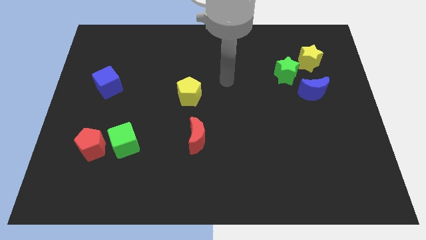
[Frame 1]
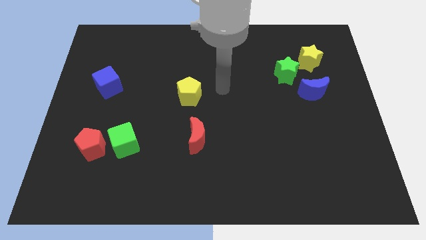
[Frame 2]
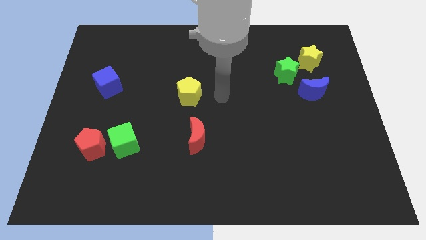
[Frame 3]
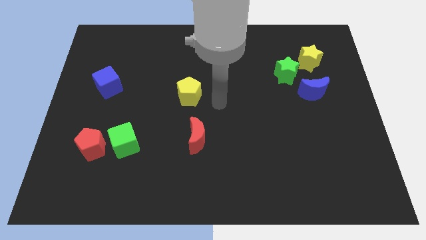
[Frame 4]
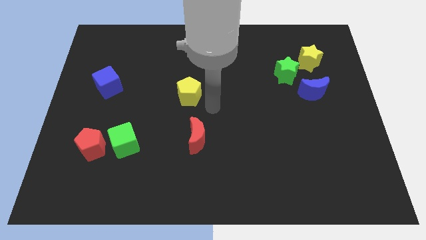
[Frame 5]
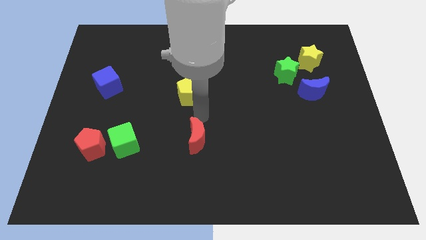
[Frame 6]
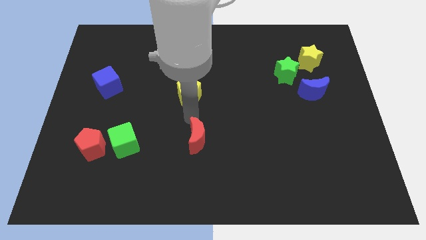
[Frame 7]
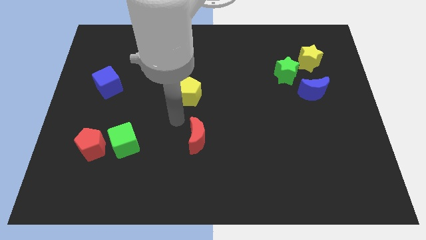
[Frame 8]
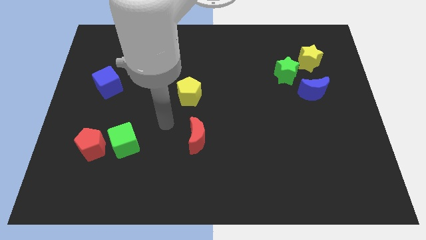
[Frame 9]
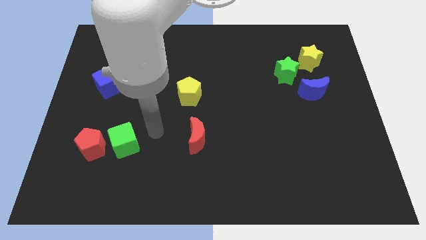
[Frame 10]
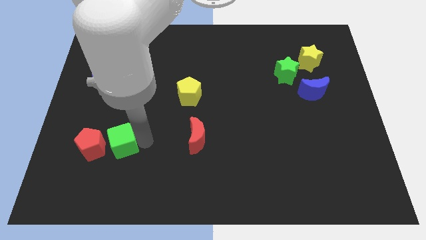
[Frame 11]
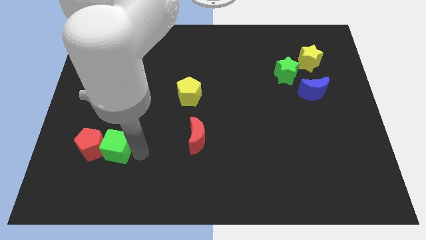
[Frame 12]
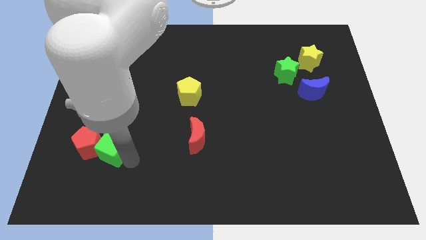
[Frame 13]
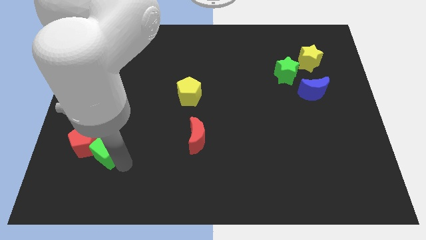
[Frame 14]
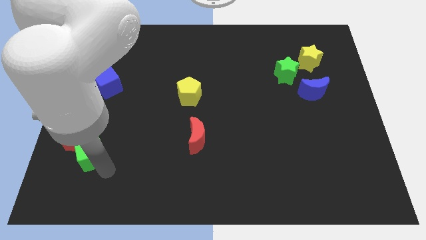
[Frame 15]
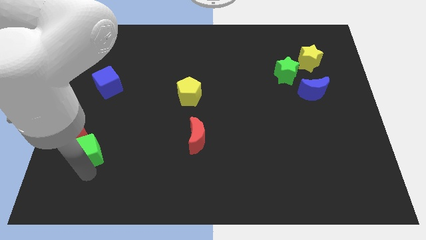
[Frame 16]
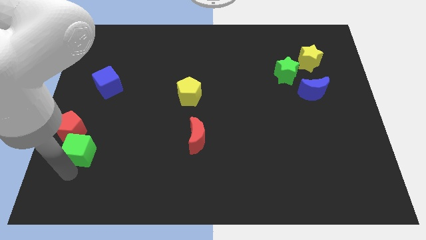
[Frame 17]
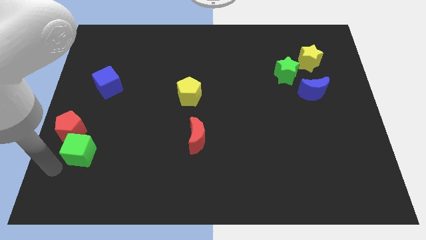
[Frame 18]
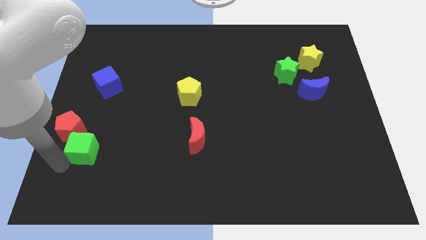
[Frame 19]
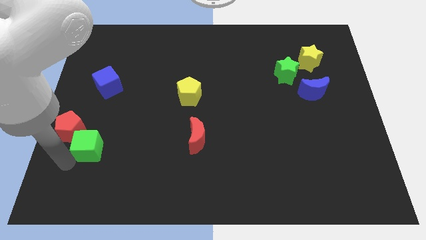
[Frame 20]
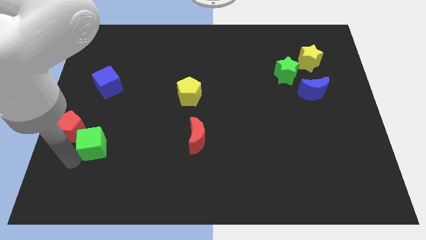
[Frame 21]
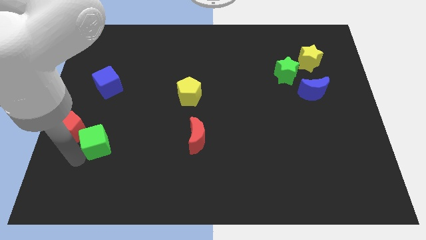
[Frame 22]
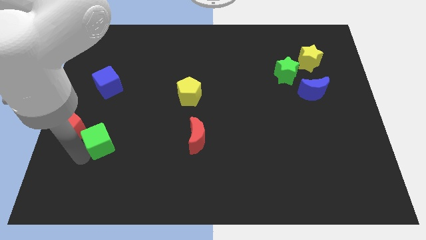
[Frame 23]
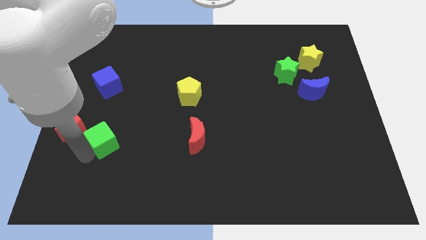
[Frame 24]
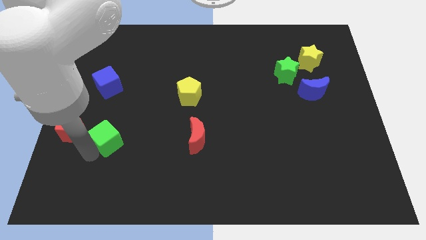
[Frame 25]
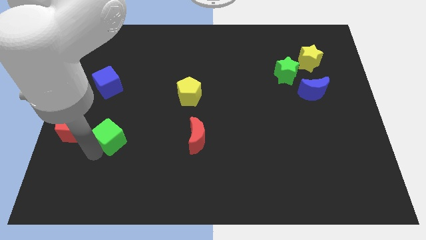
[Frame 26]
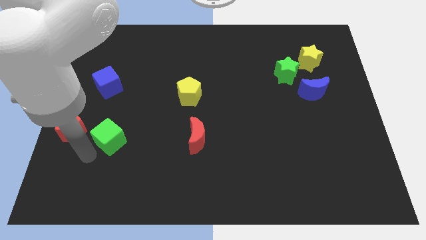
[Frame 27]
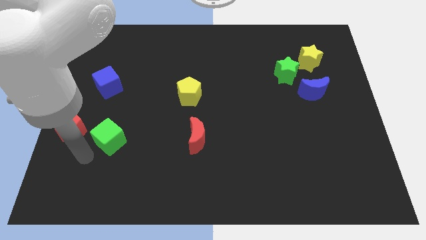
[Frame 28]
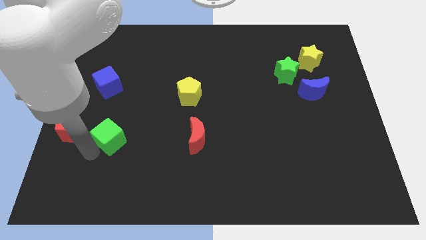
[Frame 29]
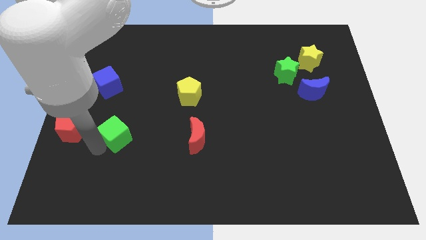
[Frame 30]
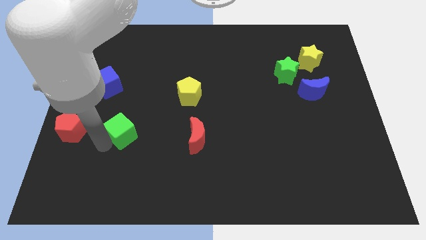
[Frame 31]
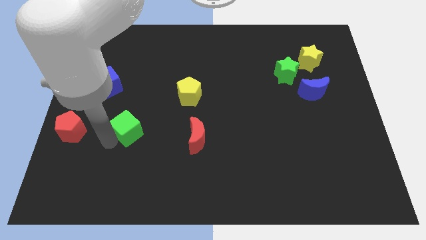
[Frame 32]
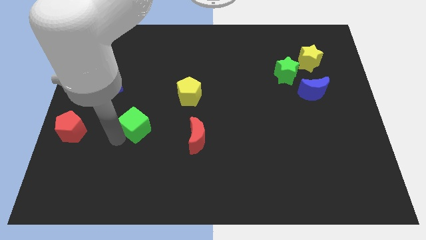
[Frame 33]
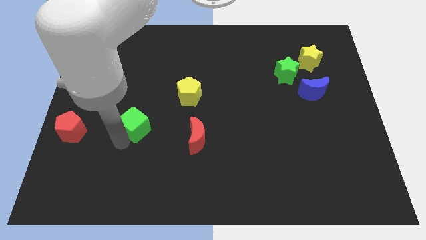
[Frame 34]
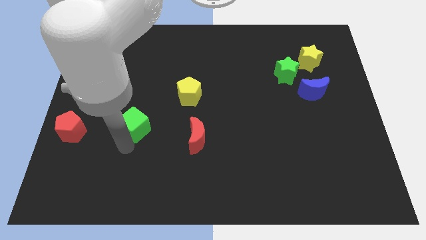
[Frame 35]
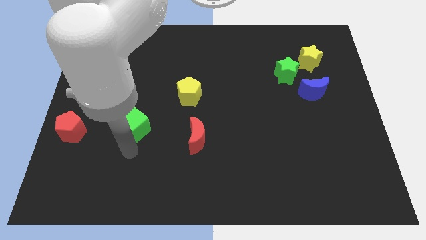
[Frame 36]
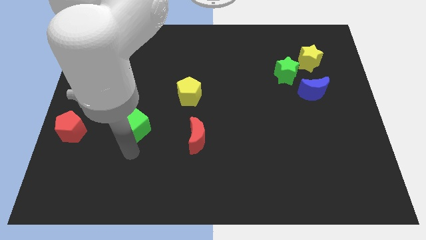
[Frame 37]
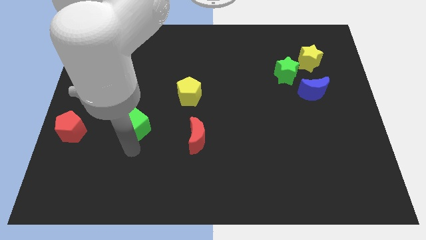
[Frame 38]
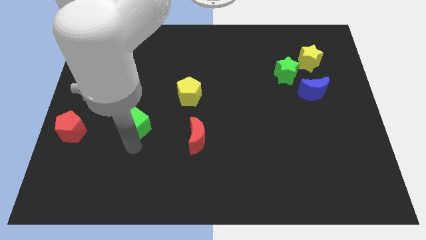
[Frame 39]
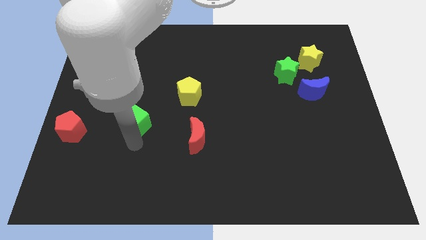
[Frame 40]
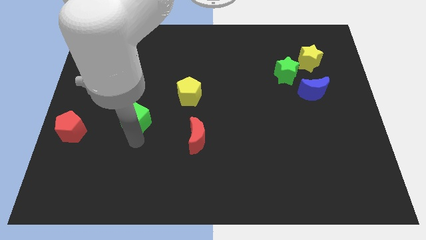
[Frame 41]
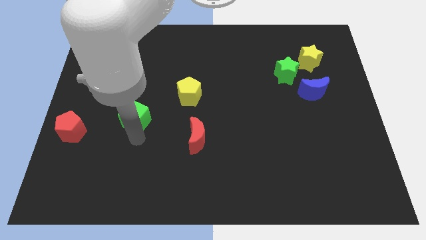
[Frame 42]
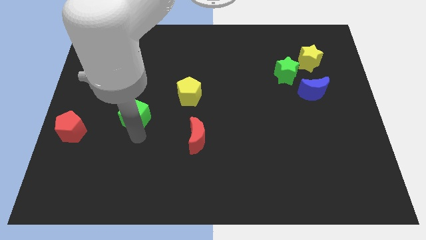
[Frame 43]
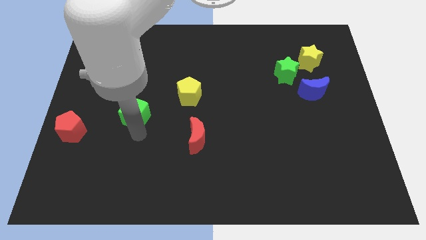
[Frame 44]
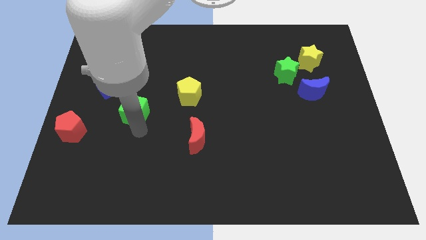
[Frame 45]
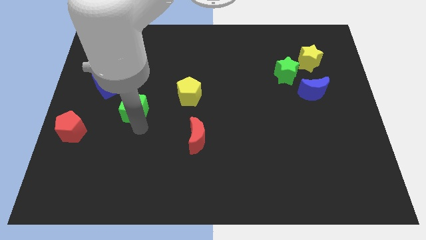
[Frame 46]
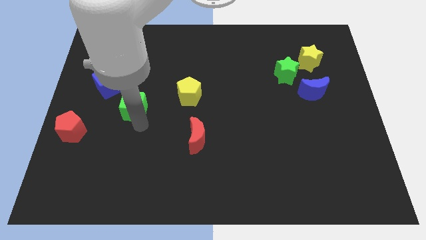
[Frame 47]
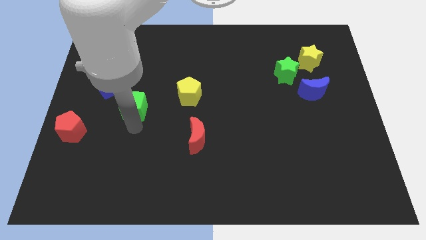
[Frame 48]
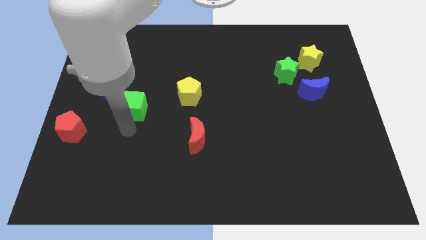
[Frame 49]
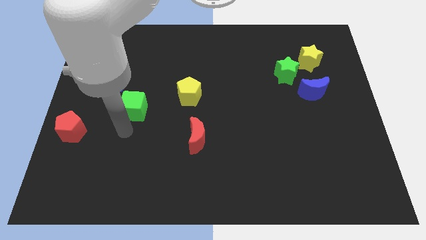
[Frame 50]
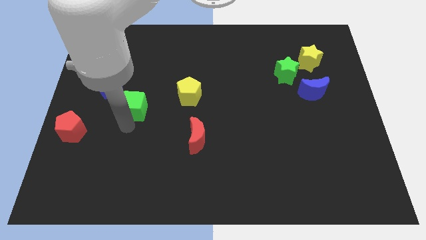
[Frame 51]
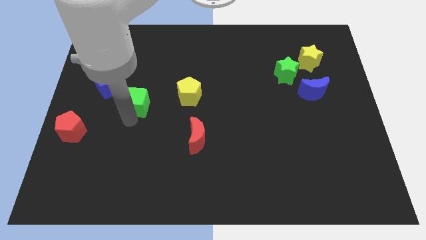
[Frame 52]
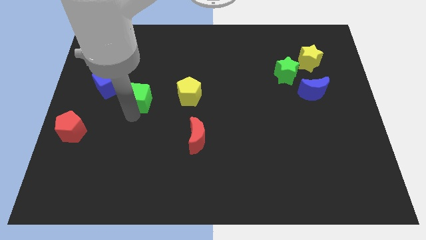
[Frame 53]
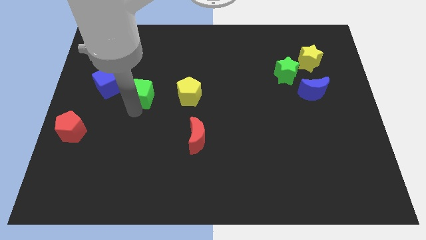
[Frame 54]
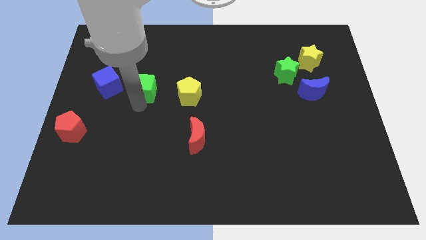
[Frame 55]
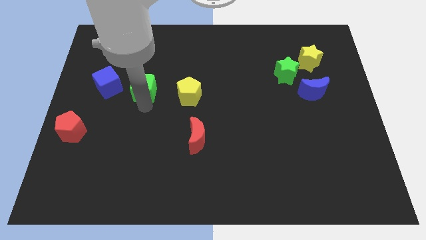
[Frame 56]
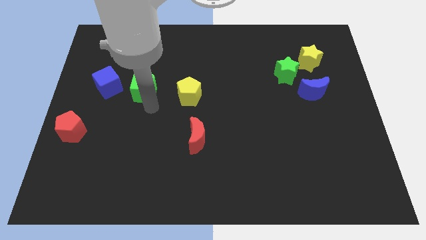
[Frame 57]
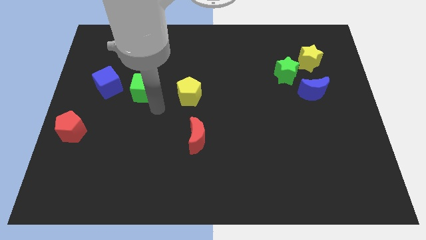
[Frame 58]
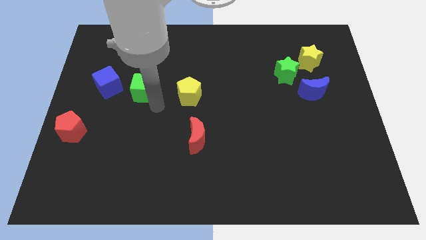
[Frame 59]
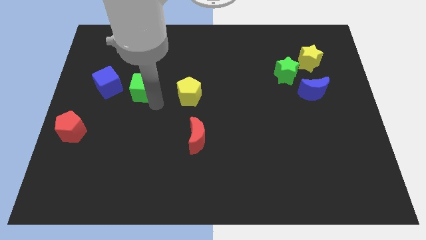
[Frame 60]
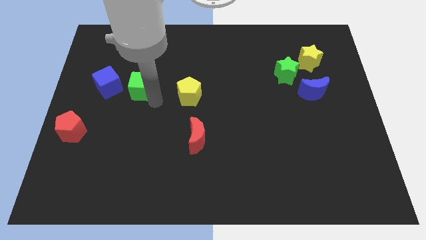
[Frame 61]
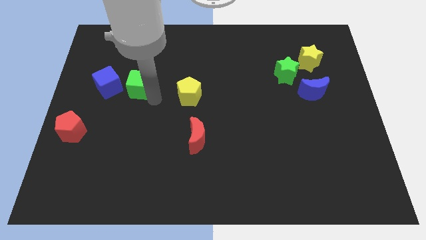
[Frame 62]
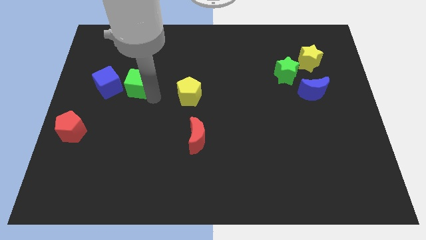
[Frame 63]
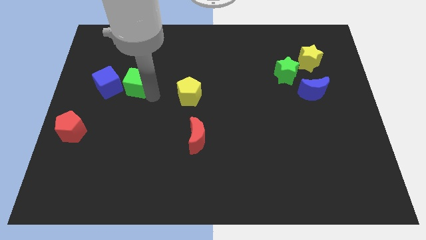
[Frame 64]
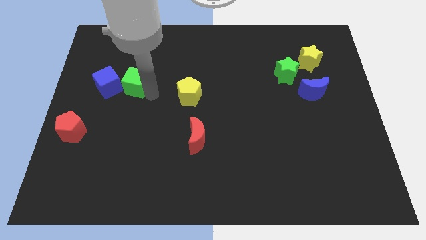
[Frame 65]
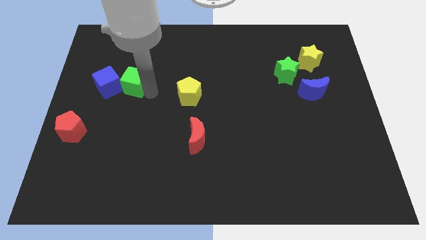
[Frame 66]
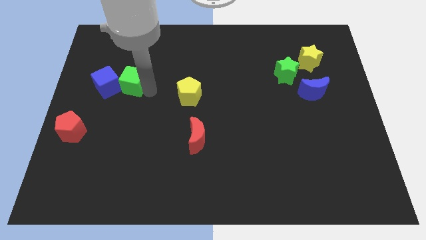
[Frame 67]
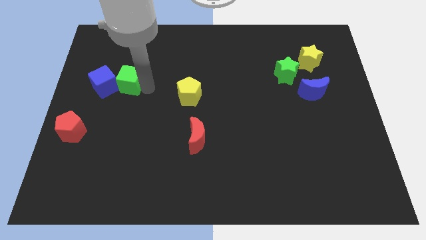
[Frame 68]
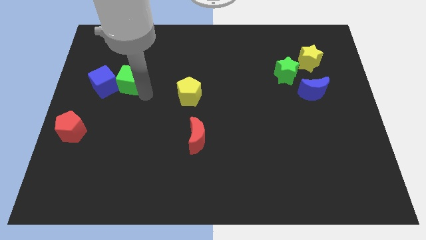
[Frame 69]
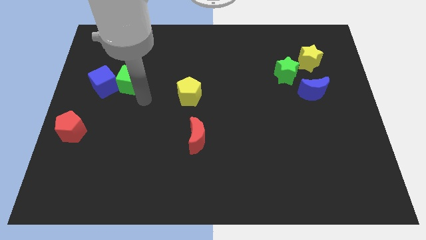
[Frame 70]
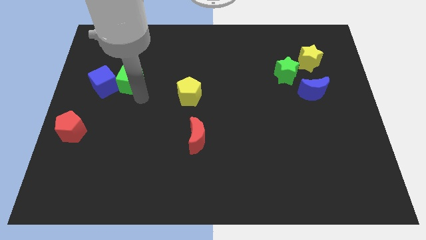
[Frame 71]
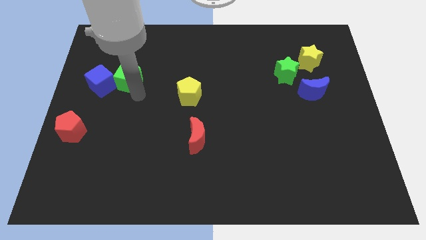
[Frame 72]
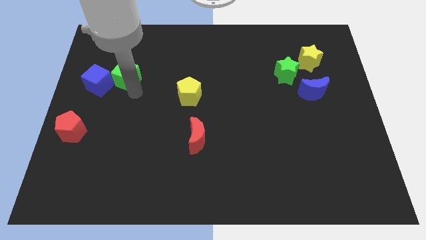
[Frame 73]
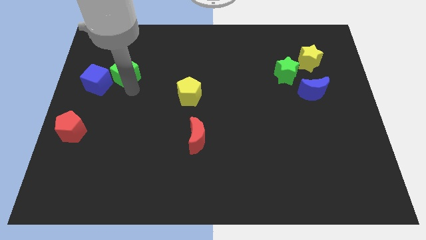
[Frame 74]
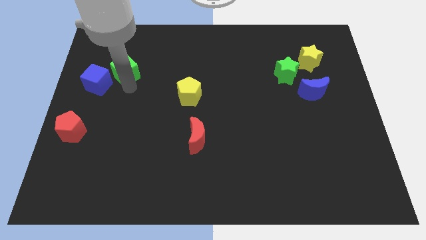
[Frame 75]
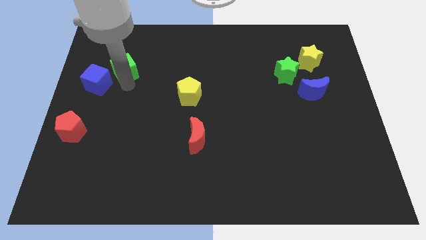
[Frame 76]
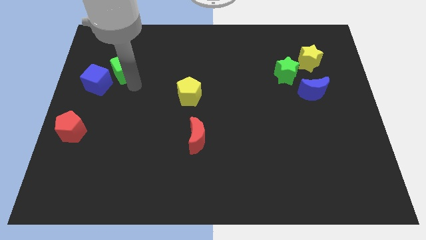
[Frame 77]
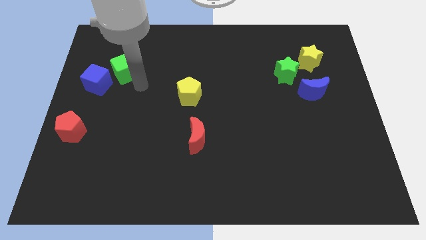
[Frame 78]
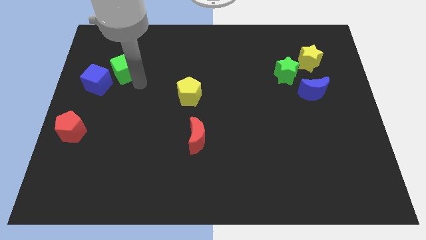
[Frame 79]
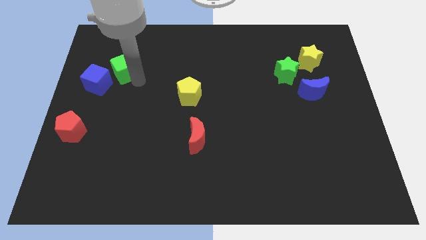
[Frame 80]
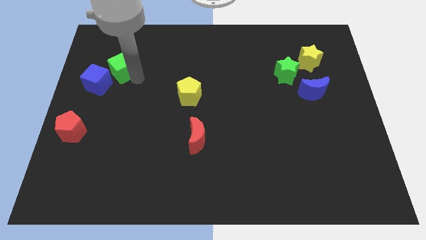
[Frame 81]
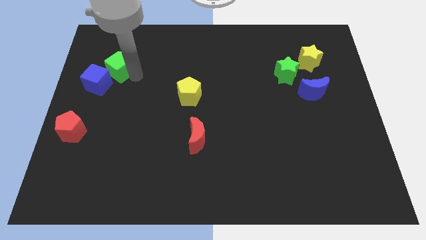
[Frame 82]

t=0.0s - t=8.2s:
push the green cube to the top of the blue cube
